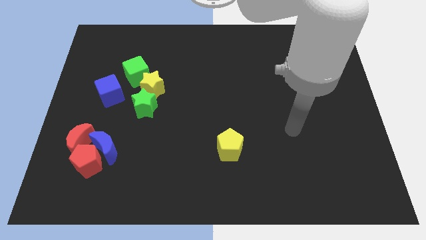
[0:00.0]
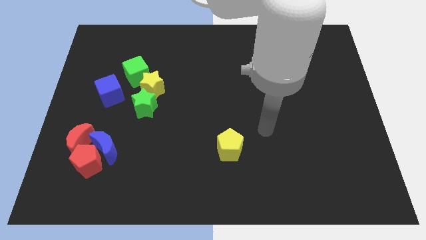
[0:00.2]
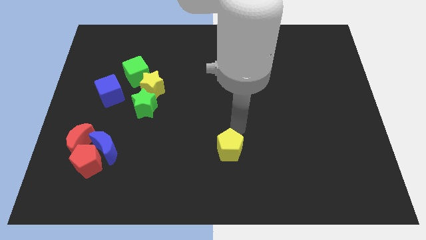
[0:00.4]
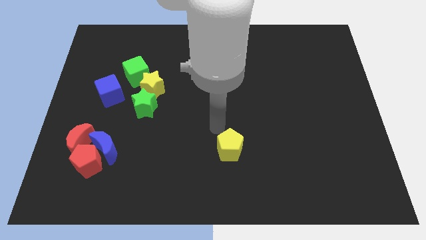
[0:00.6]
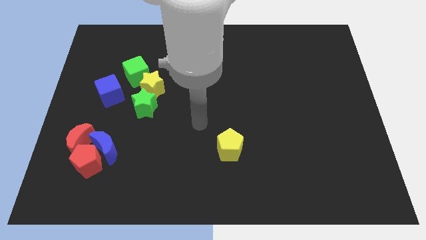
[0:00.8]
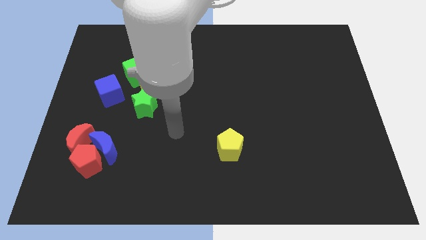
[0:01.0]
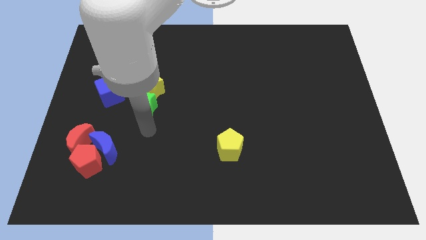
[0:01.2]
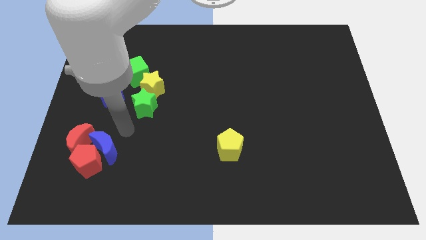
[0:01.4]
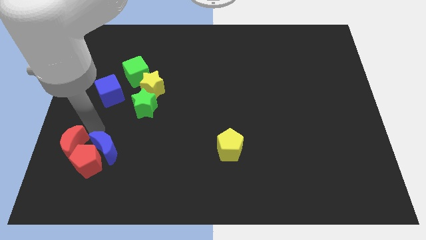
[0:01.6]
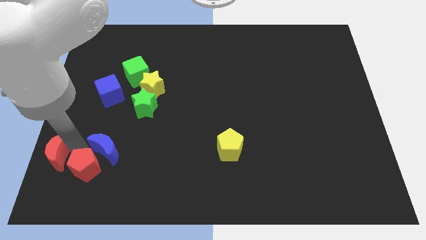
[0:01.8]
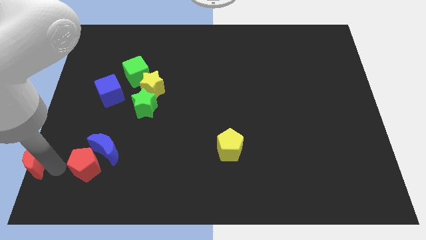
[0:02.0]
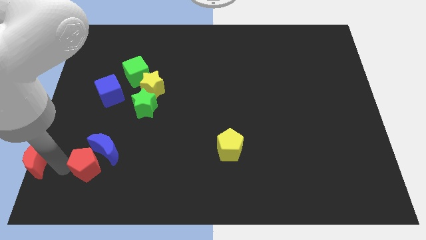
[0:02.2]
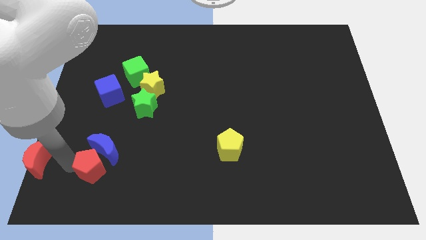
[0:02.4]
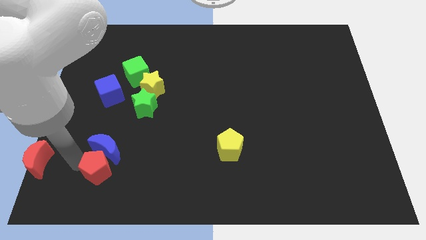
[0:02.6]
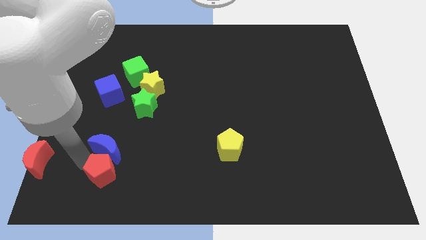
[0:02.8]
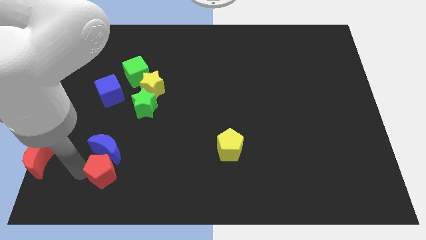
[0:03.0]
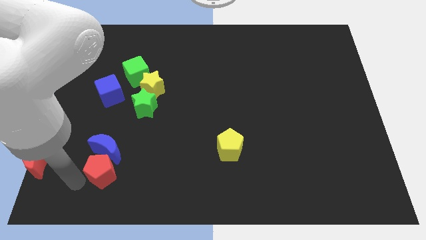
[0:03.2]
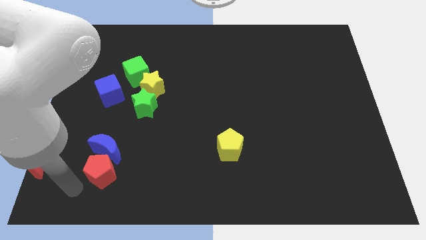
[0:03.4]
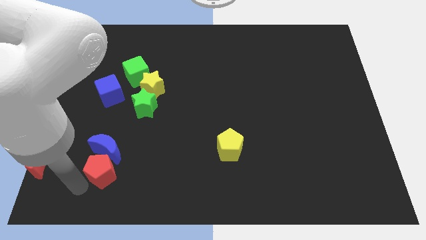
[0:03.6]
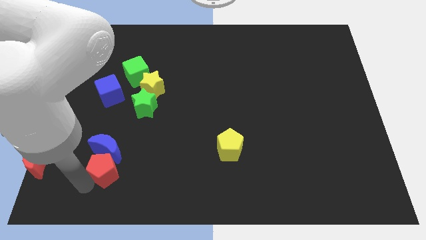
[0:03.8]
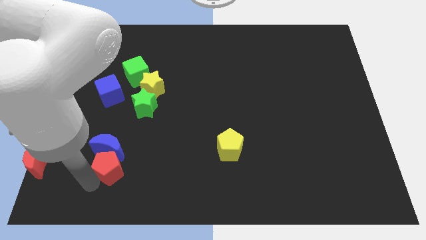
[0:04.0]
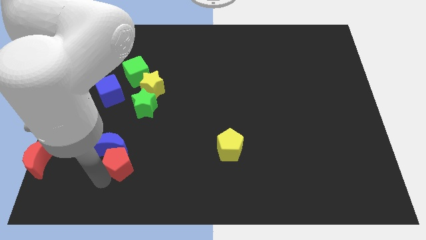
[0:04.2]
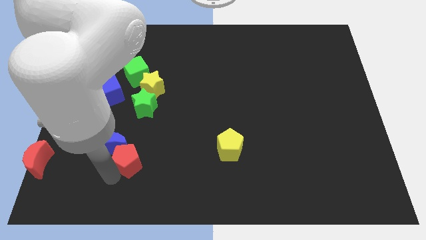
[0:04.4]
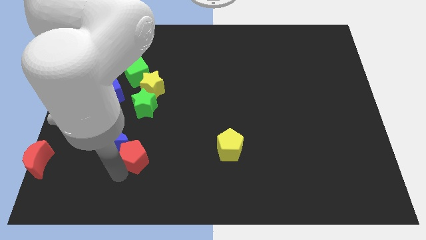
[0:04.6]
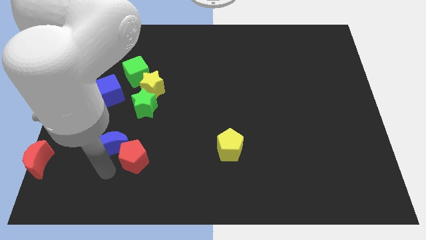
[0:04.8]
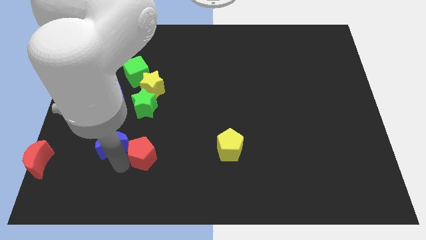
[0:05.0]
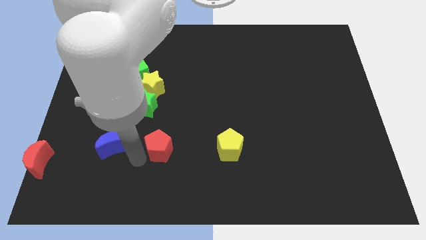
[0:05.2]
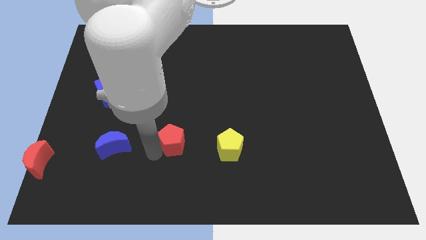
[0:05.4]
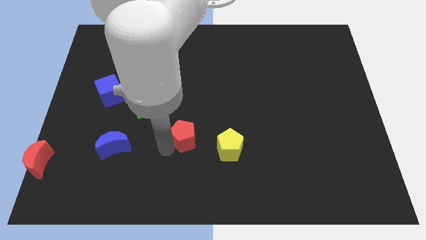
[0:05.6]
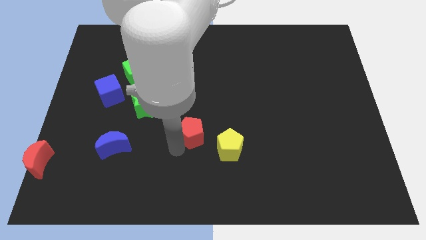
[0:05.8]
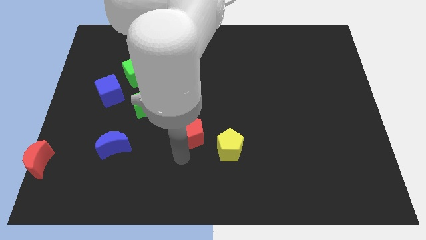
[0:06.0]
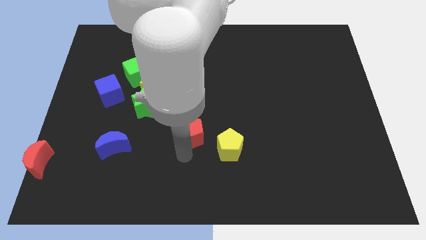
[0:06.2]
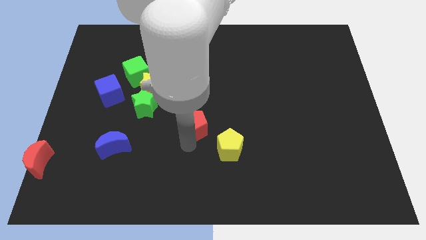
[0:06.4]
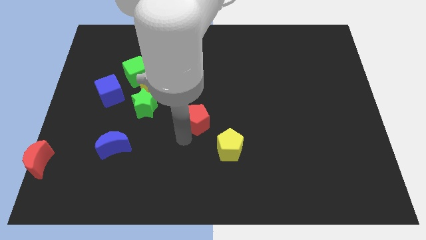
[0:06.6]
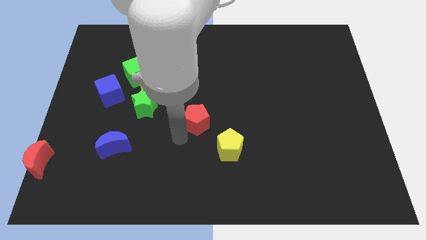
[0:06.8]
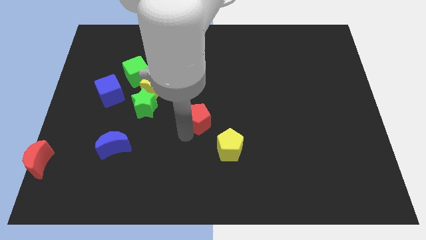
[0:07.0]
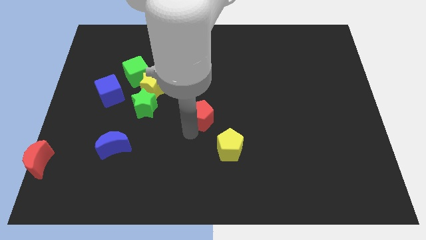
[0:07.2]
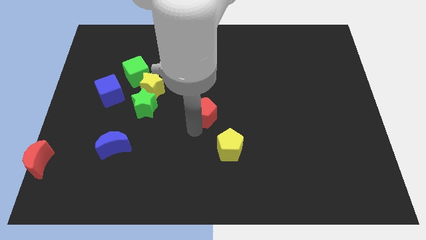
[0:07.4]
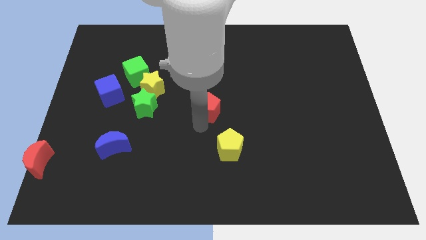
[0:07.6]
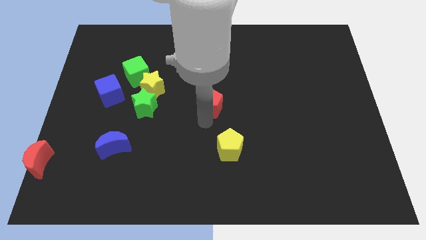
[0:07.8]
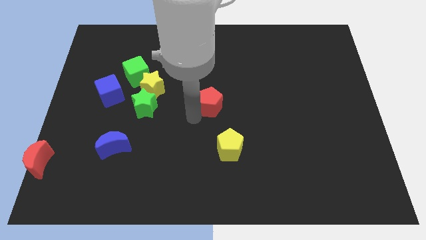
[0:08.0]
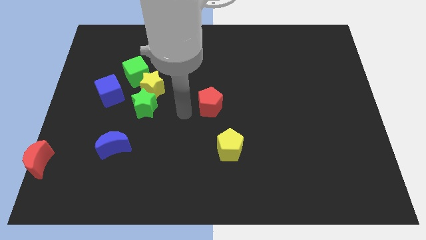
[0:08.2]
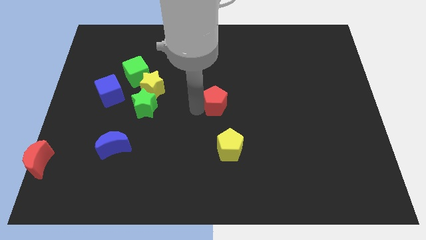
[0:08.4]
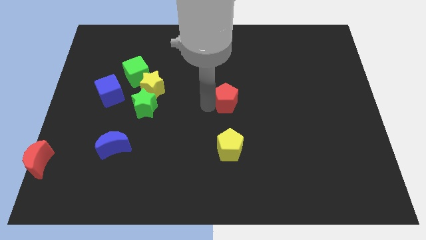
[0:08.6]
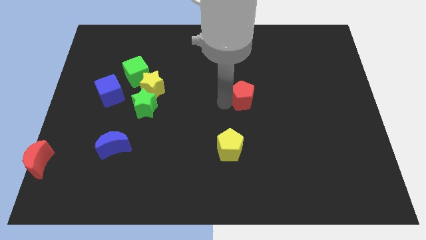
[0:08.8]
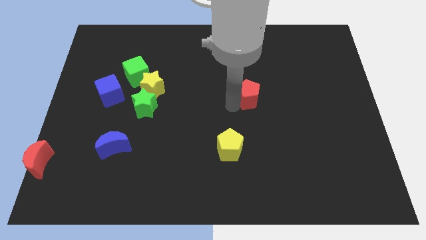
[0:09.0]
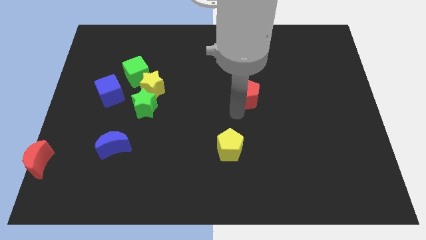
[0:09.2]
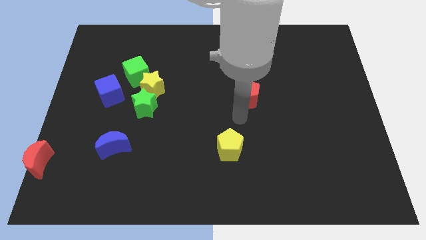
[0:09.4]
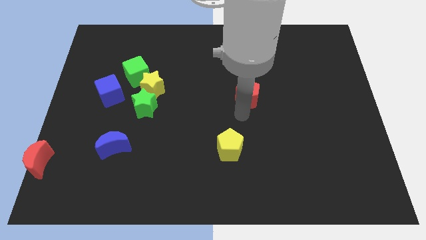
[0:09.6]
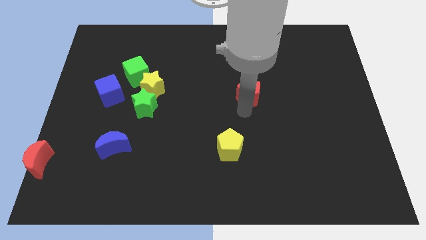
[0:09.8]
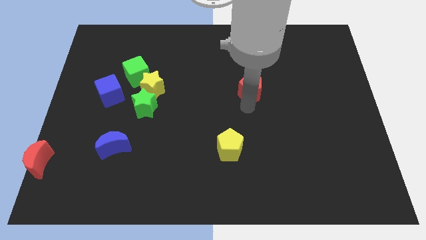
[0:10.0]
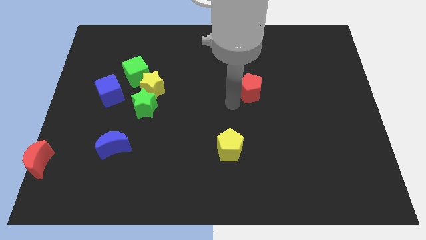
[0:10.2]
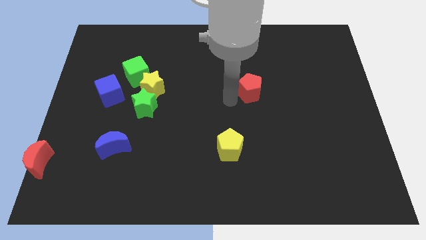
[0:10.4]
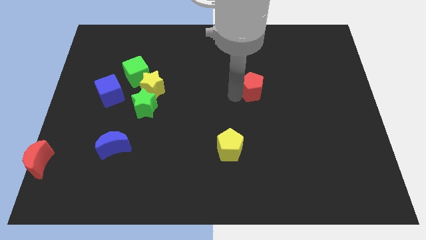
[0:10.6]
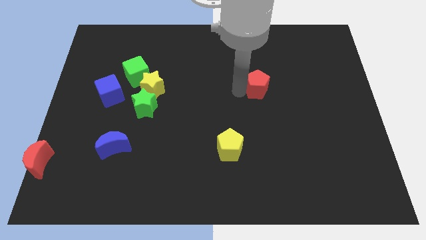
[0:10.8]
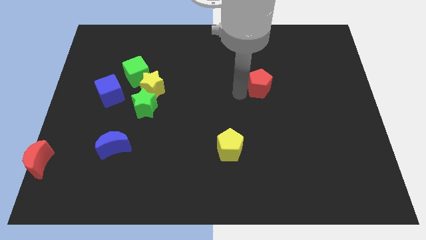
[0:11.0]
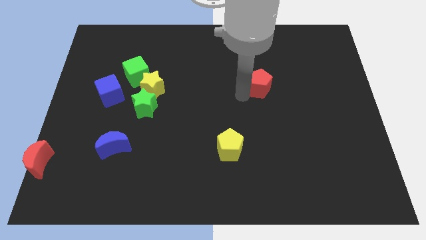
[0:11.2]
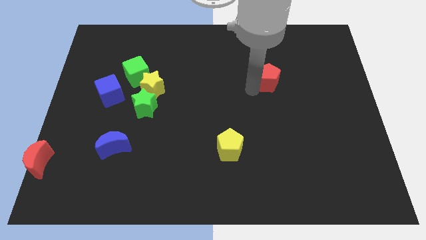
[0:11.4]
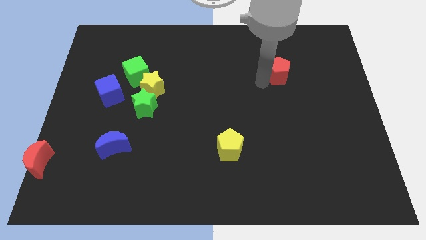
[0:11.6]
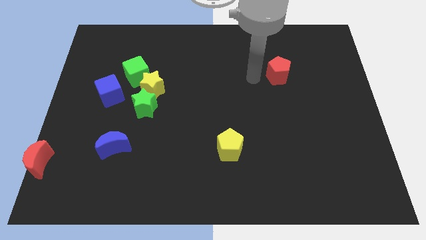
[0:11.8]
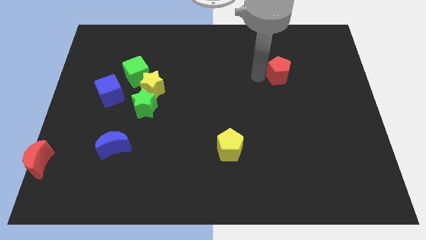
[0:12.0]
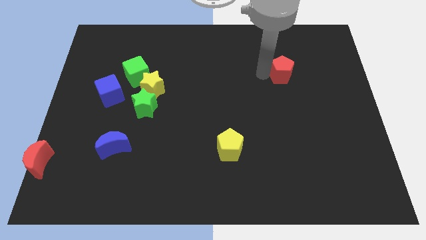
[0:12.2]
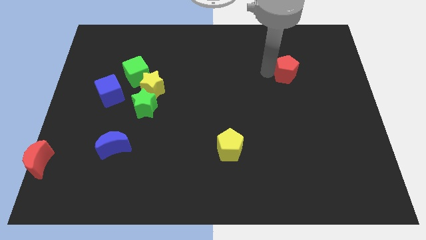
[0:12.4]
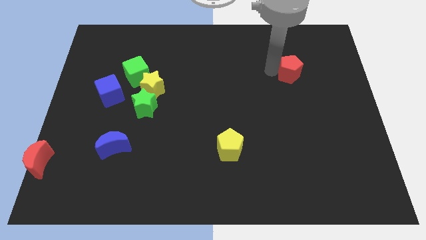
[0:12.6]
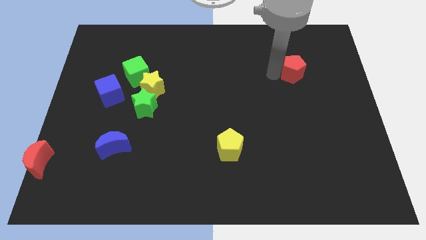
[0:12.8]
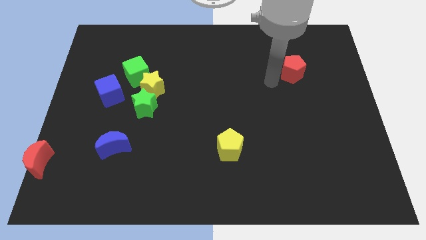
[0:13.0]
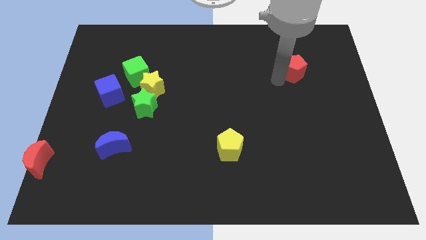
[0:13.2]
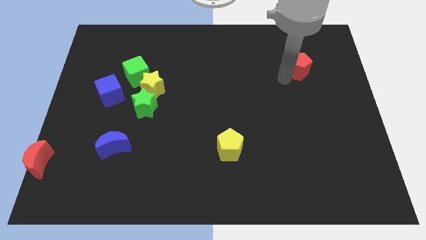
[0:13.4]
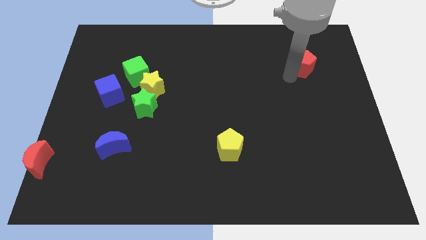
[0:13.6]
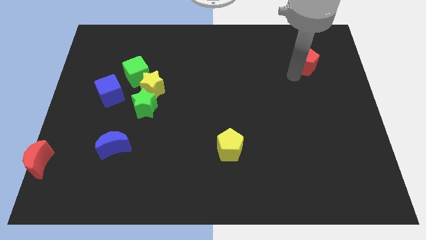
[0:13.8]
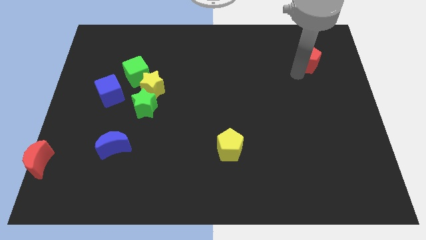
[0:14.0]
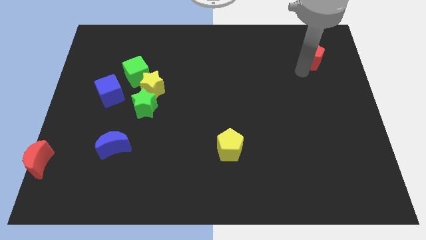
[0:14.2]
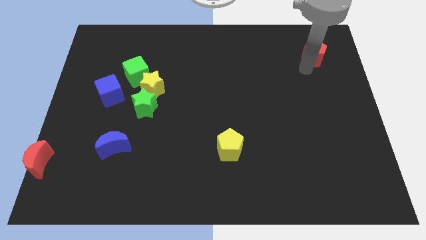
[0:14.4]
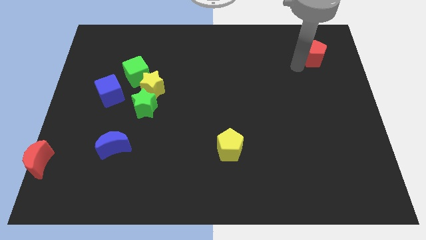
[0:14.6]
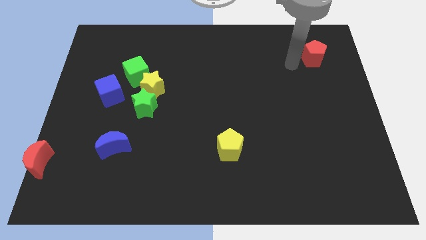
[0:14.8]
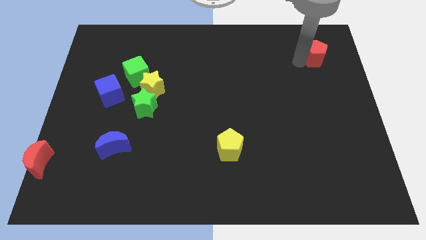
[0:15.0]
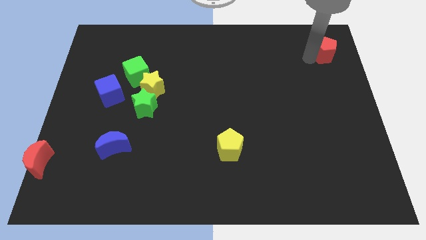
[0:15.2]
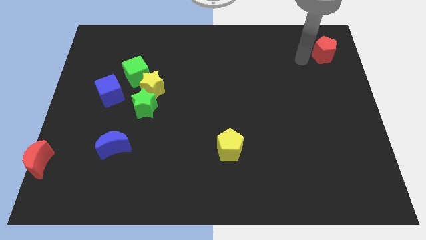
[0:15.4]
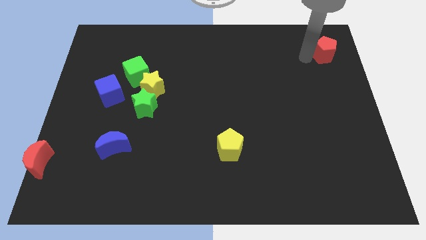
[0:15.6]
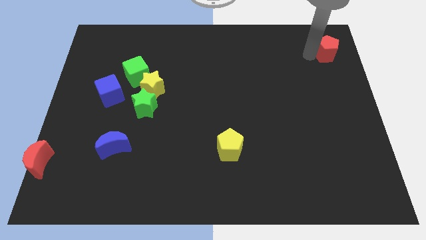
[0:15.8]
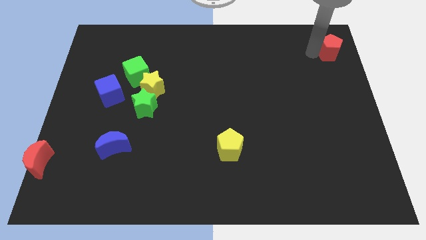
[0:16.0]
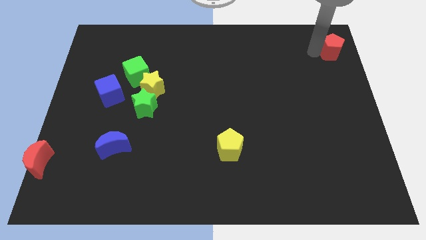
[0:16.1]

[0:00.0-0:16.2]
put the red pentagon to the top right corner
